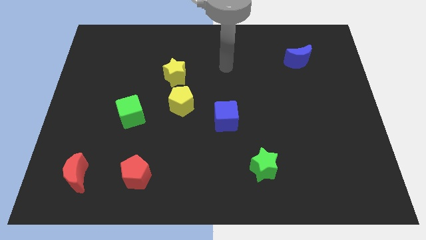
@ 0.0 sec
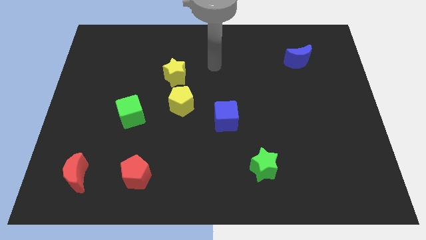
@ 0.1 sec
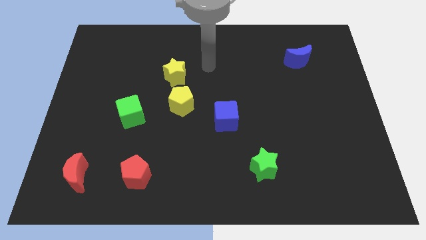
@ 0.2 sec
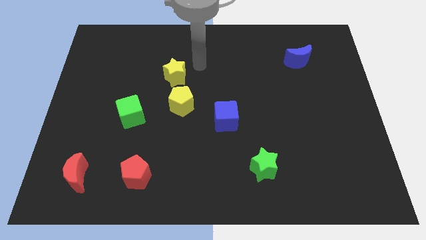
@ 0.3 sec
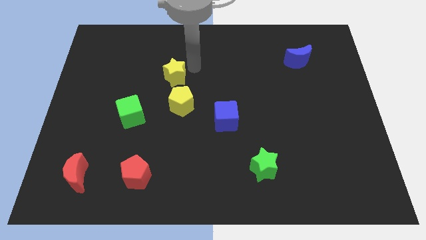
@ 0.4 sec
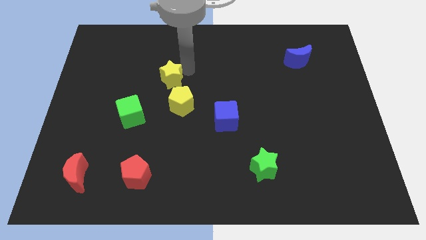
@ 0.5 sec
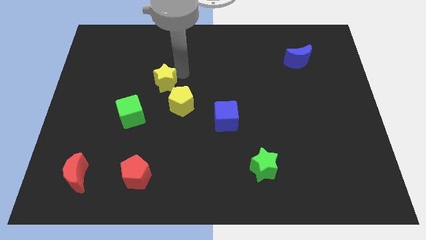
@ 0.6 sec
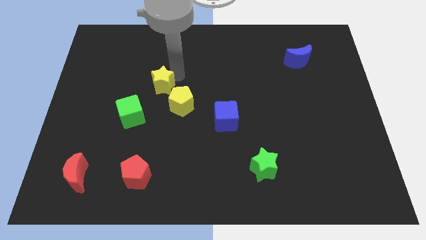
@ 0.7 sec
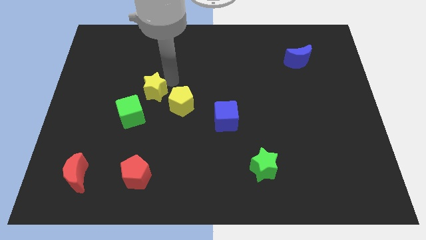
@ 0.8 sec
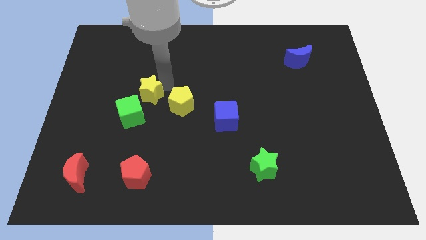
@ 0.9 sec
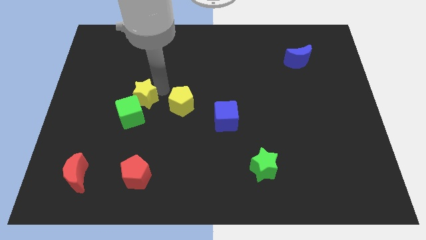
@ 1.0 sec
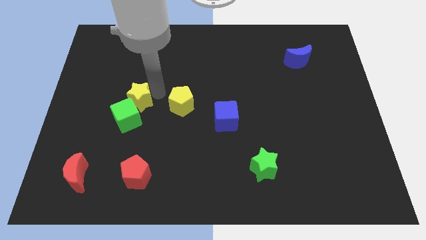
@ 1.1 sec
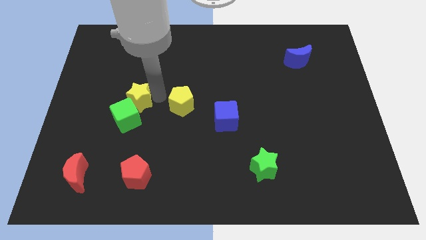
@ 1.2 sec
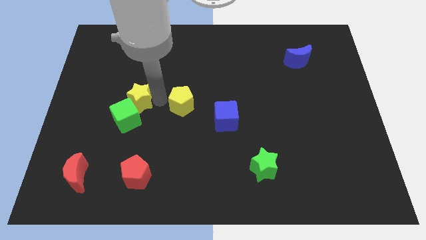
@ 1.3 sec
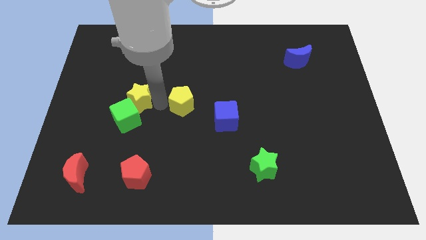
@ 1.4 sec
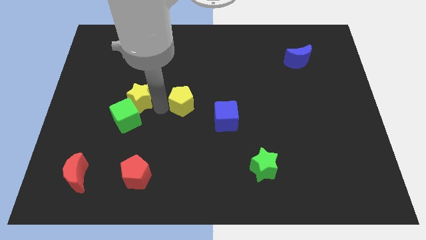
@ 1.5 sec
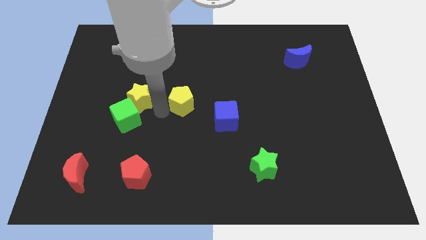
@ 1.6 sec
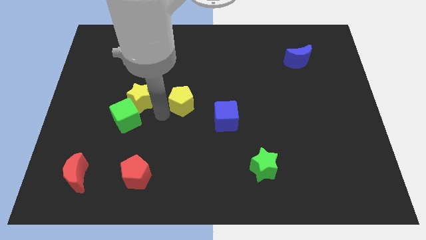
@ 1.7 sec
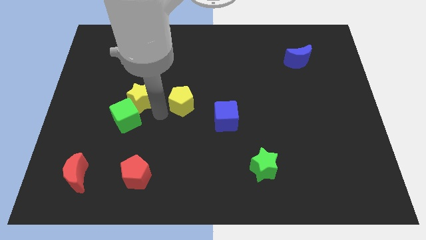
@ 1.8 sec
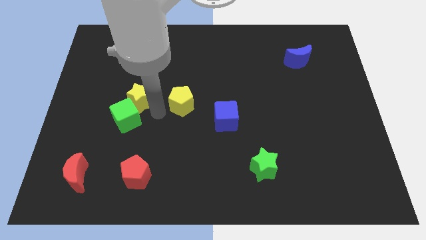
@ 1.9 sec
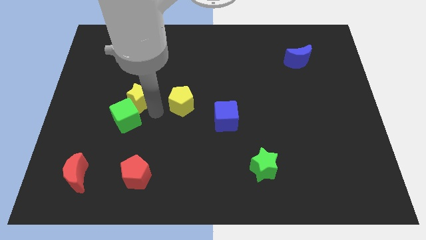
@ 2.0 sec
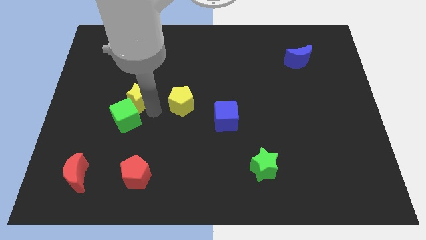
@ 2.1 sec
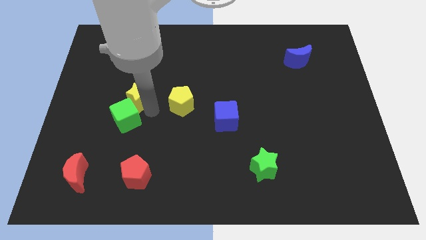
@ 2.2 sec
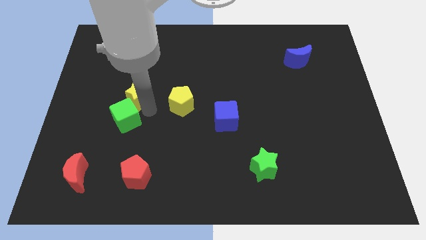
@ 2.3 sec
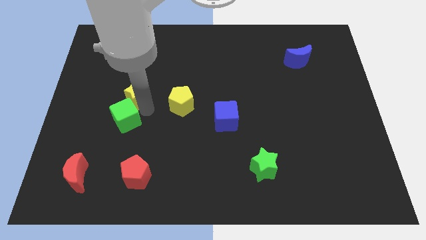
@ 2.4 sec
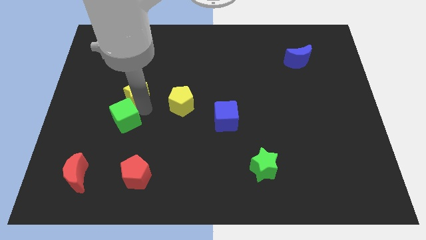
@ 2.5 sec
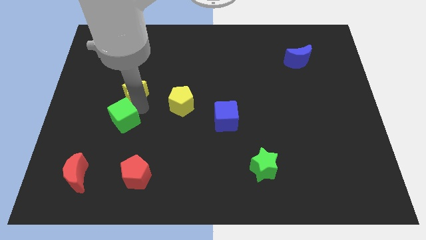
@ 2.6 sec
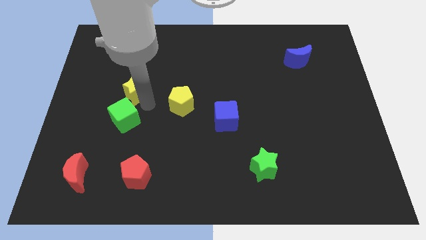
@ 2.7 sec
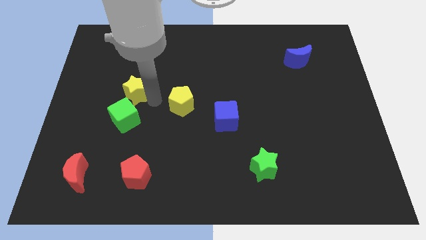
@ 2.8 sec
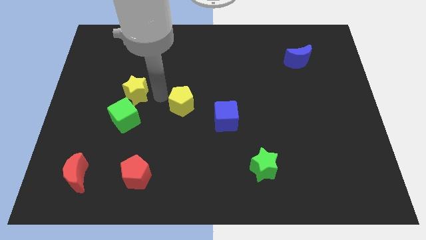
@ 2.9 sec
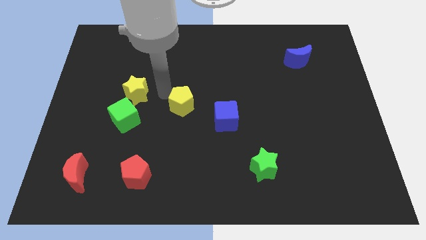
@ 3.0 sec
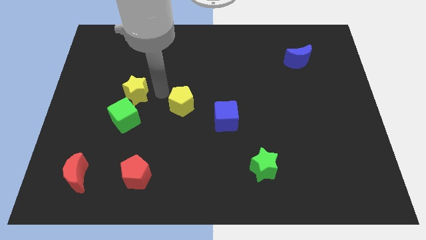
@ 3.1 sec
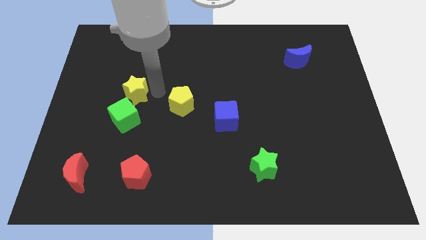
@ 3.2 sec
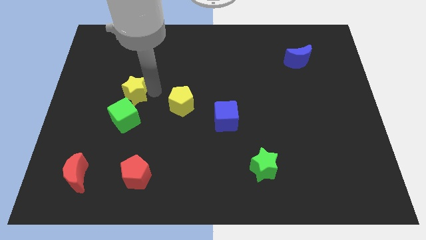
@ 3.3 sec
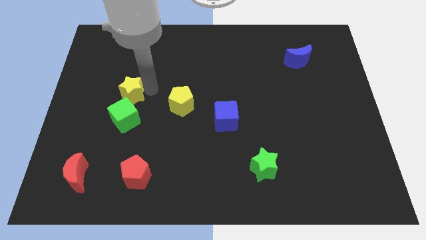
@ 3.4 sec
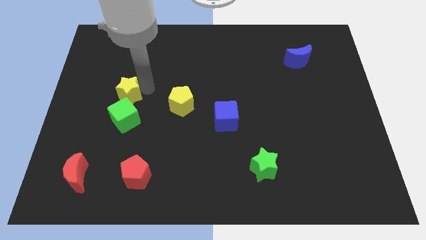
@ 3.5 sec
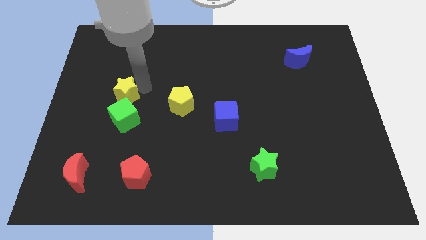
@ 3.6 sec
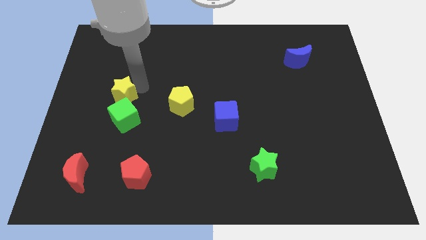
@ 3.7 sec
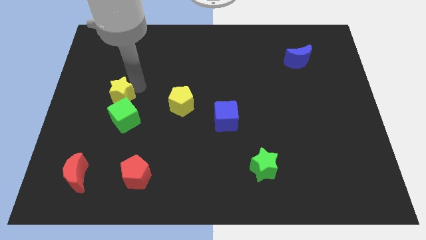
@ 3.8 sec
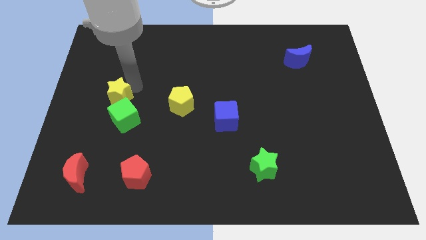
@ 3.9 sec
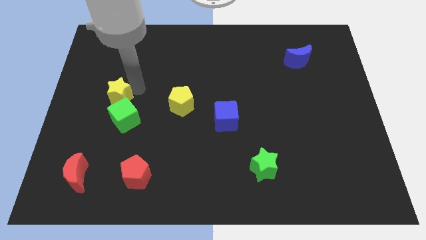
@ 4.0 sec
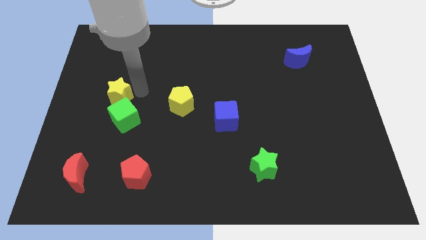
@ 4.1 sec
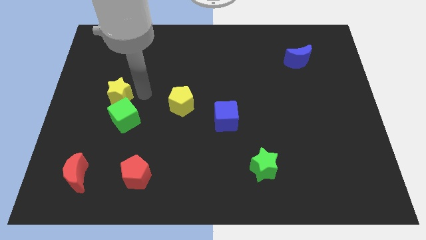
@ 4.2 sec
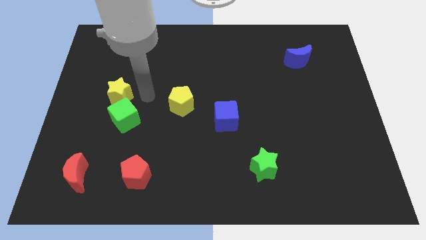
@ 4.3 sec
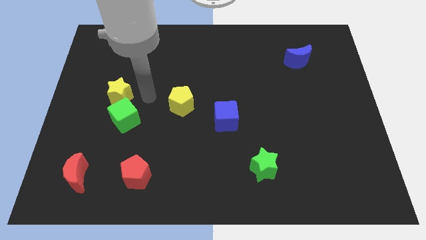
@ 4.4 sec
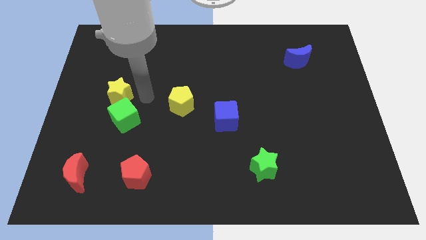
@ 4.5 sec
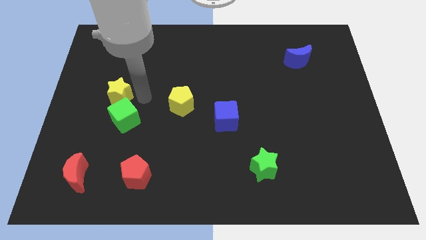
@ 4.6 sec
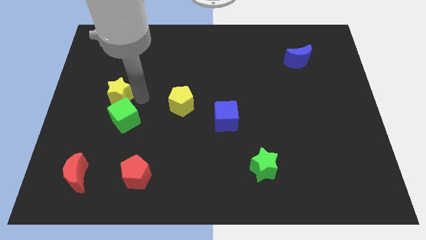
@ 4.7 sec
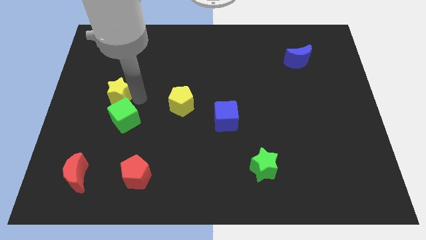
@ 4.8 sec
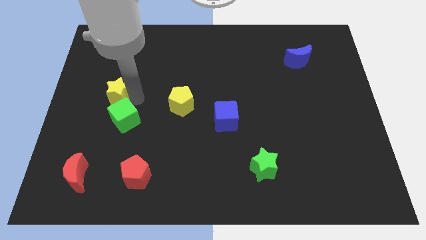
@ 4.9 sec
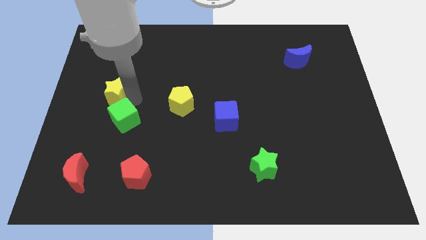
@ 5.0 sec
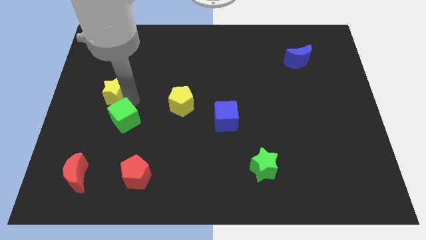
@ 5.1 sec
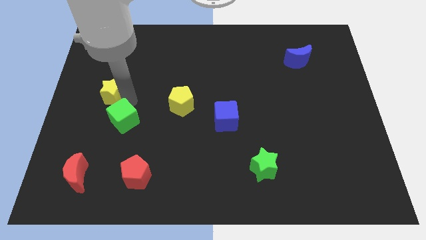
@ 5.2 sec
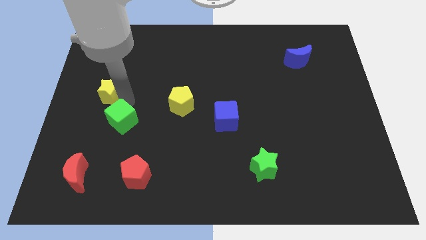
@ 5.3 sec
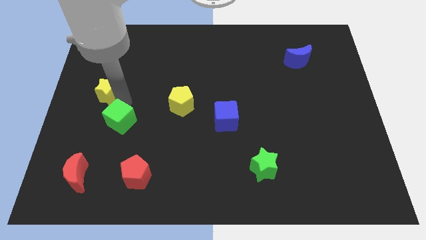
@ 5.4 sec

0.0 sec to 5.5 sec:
slide the yellow star to the left side of the board

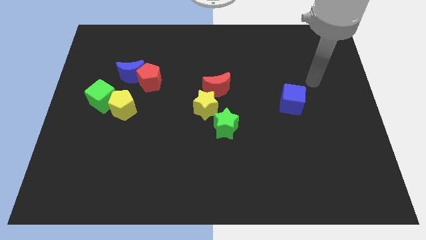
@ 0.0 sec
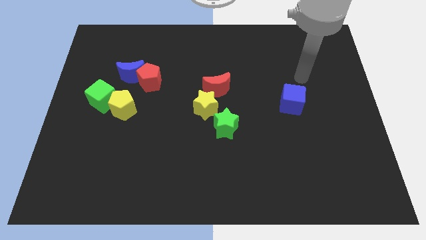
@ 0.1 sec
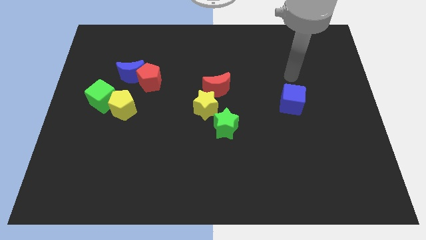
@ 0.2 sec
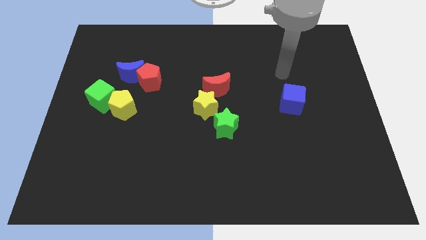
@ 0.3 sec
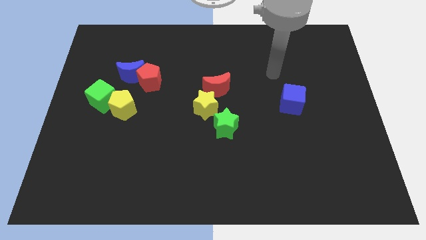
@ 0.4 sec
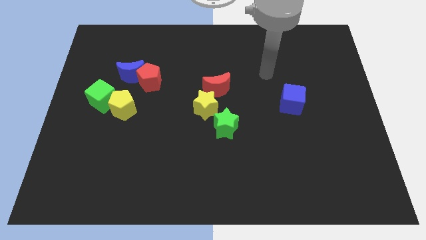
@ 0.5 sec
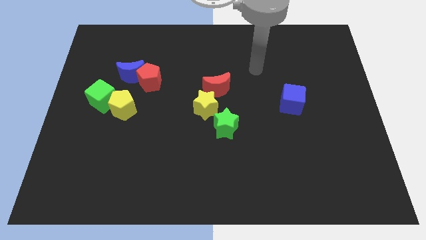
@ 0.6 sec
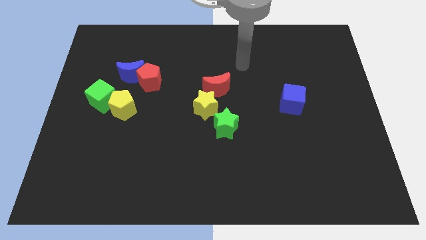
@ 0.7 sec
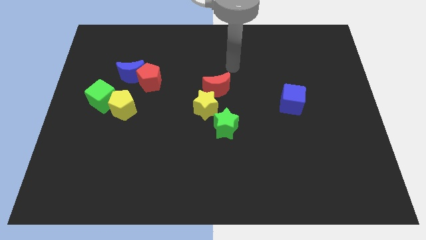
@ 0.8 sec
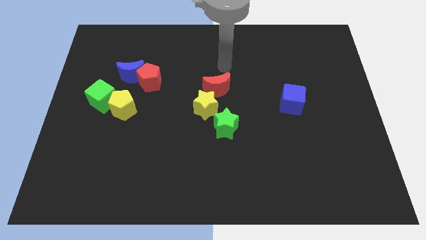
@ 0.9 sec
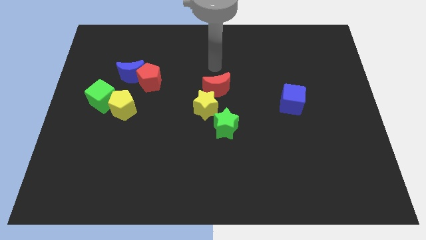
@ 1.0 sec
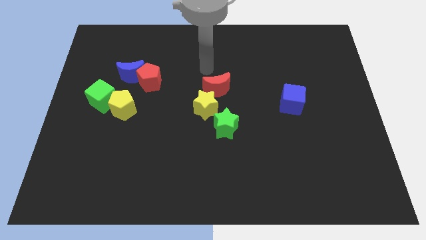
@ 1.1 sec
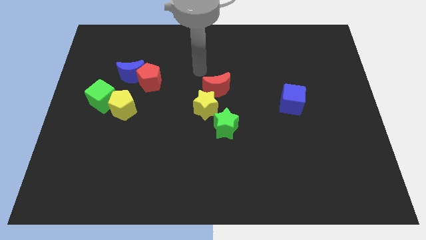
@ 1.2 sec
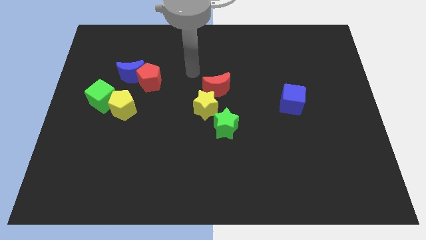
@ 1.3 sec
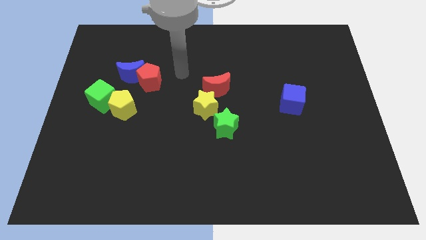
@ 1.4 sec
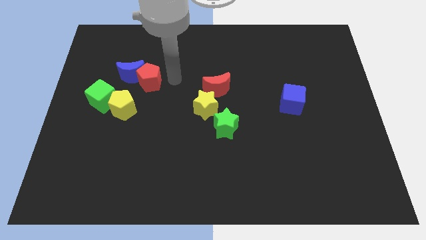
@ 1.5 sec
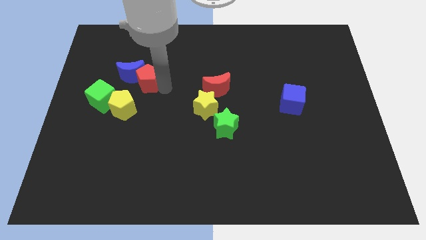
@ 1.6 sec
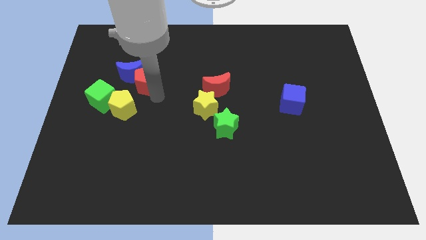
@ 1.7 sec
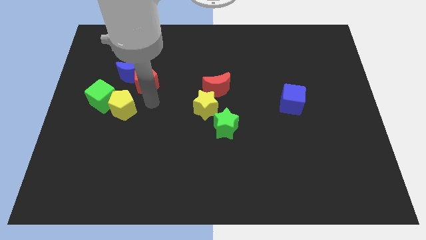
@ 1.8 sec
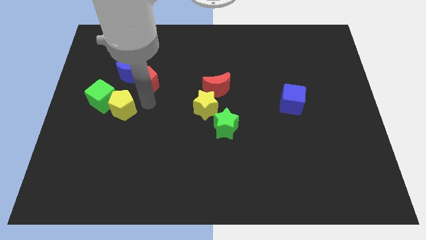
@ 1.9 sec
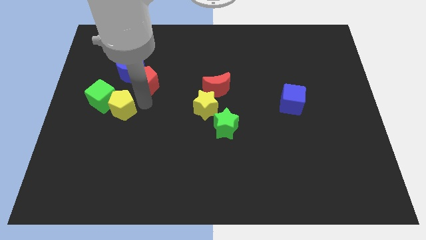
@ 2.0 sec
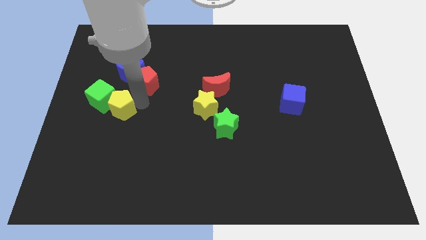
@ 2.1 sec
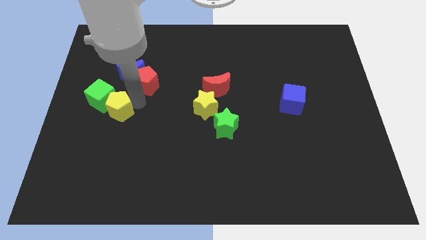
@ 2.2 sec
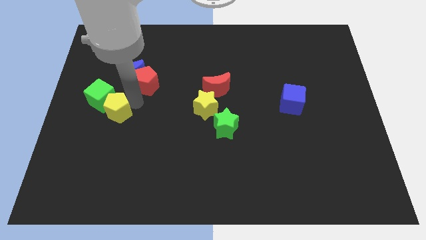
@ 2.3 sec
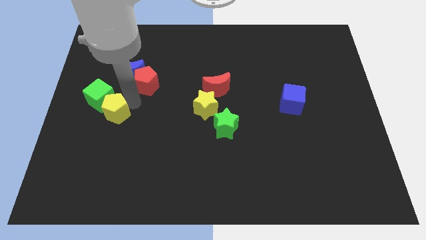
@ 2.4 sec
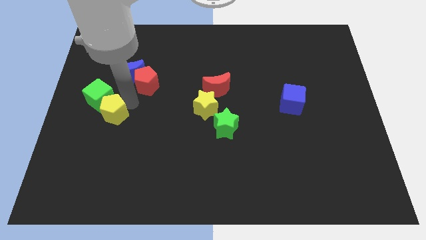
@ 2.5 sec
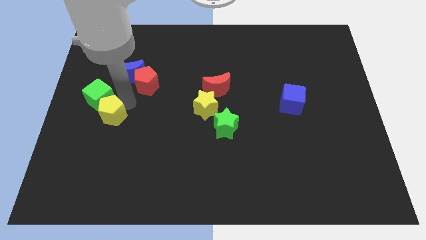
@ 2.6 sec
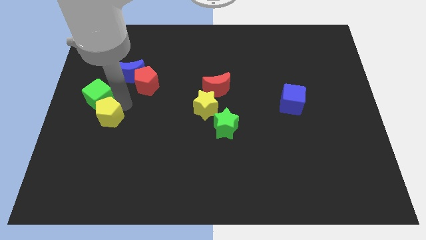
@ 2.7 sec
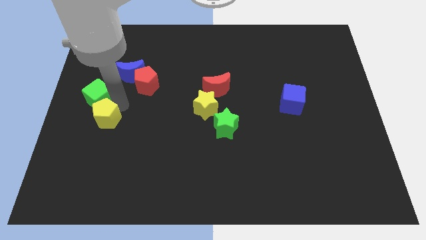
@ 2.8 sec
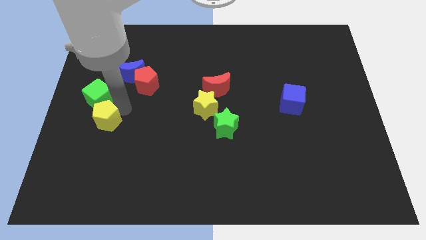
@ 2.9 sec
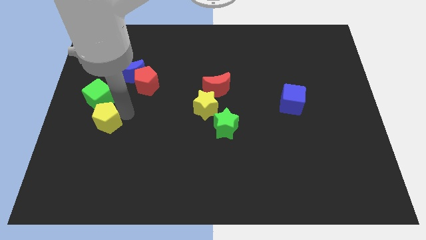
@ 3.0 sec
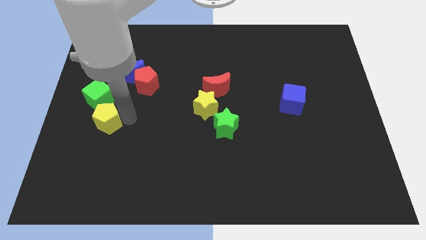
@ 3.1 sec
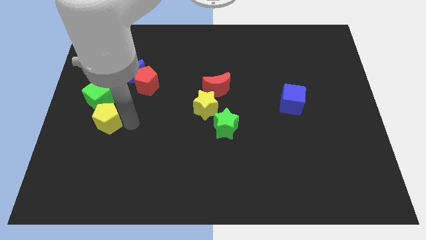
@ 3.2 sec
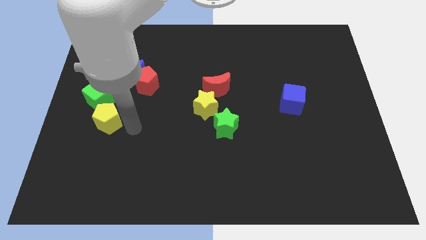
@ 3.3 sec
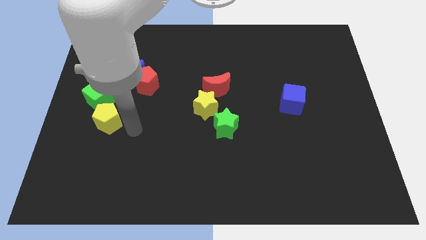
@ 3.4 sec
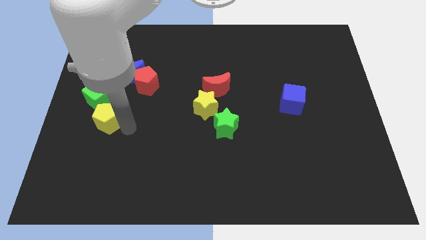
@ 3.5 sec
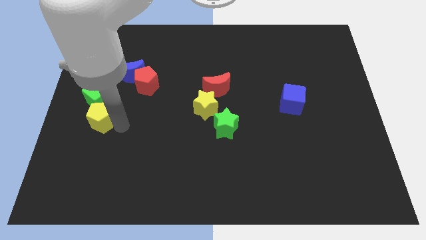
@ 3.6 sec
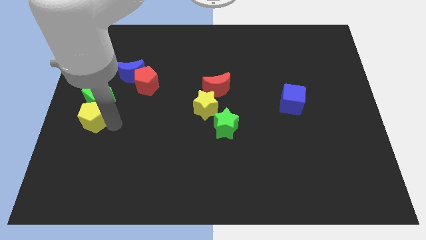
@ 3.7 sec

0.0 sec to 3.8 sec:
push the yellow pentagon to the left side
